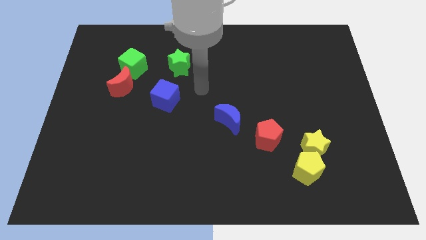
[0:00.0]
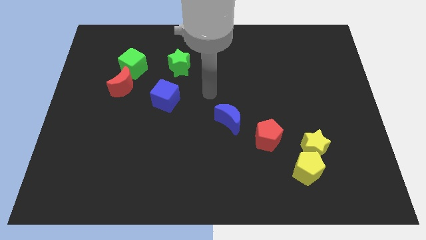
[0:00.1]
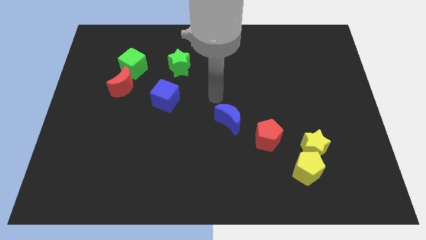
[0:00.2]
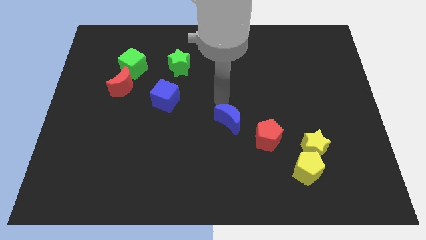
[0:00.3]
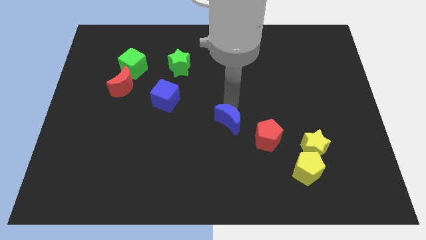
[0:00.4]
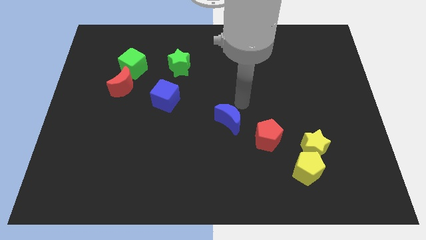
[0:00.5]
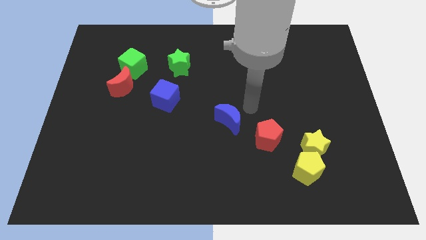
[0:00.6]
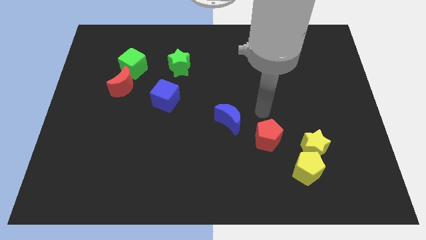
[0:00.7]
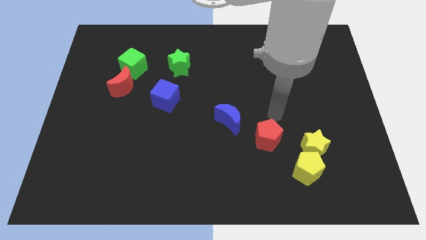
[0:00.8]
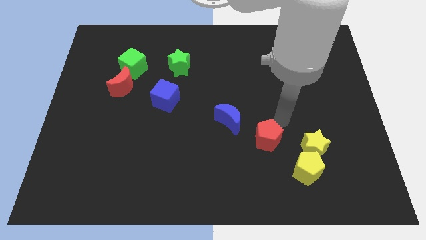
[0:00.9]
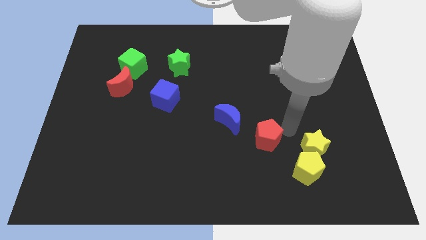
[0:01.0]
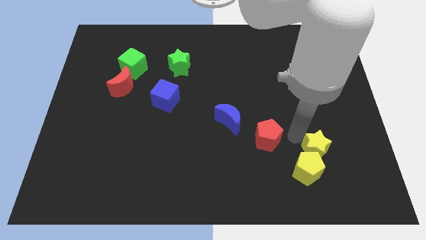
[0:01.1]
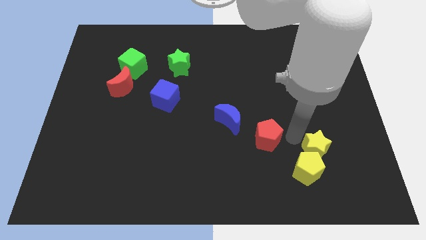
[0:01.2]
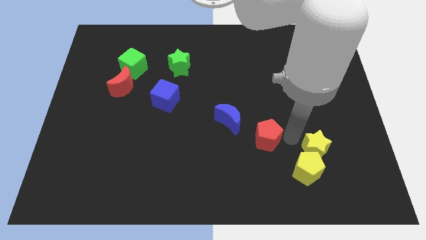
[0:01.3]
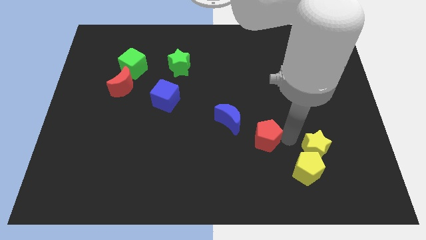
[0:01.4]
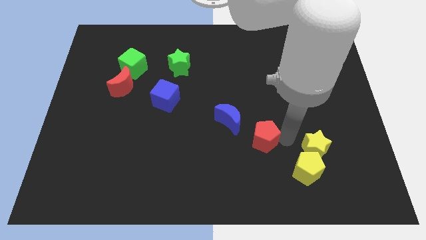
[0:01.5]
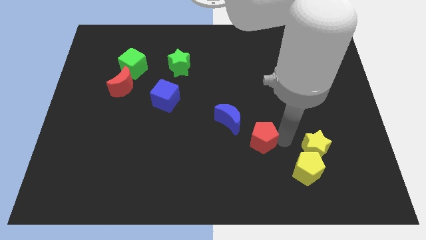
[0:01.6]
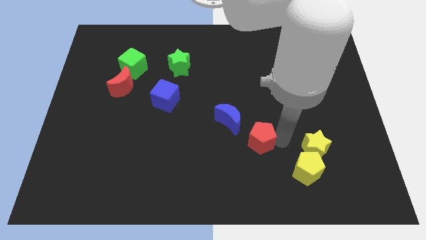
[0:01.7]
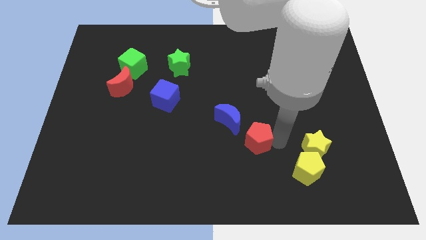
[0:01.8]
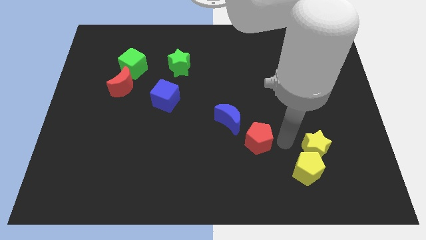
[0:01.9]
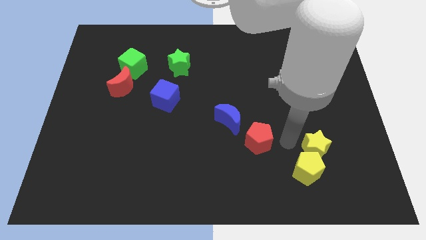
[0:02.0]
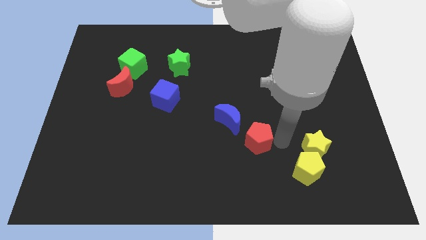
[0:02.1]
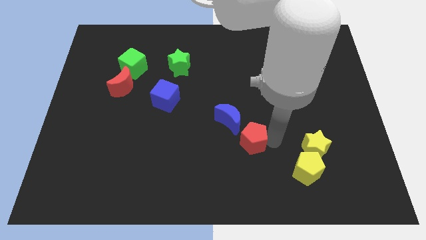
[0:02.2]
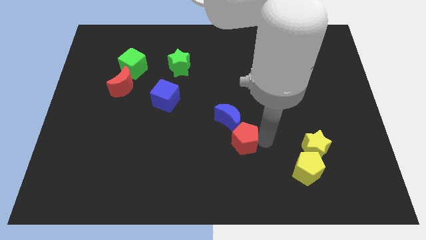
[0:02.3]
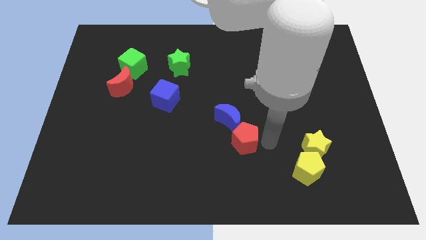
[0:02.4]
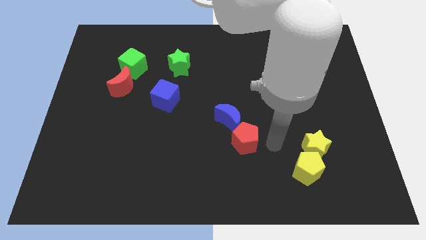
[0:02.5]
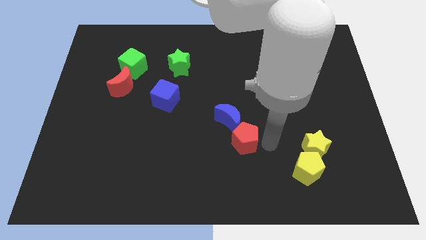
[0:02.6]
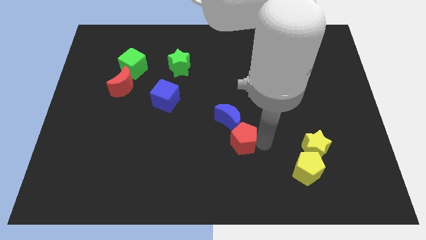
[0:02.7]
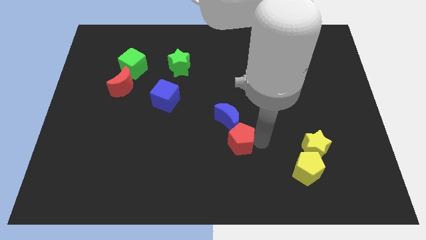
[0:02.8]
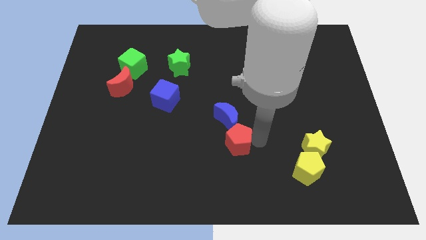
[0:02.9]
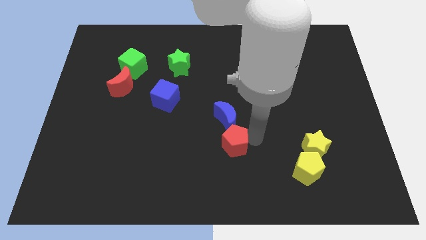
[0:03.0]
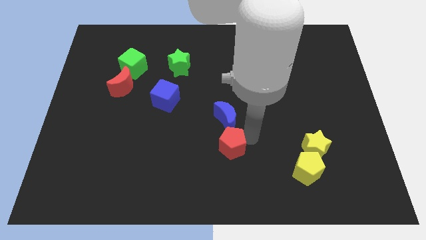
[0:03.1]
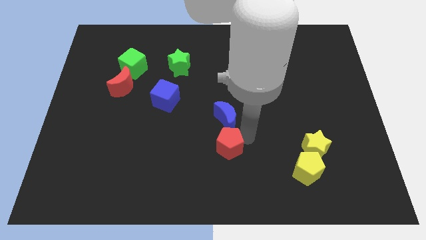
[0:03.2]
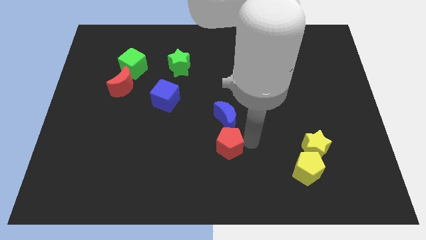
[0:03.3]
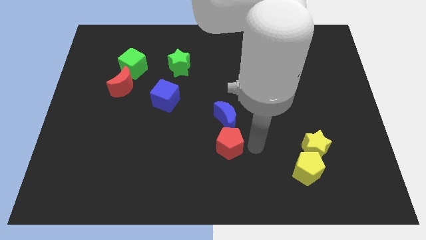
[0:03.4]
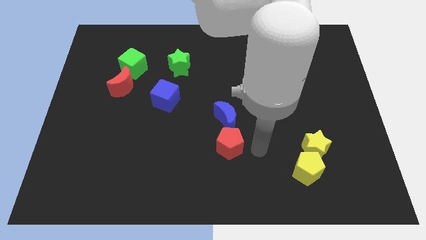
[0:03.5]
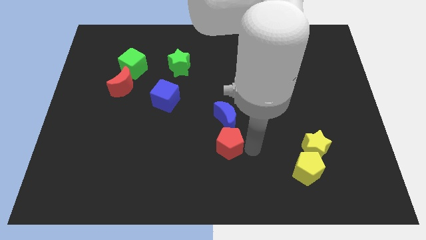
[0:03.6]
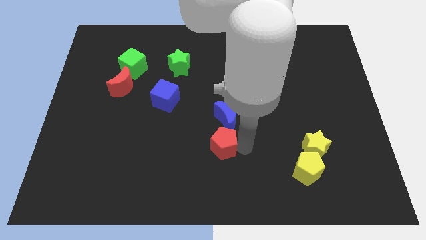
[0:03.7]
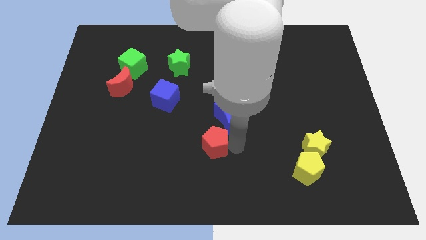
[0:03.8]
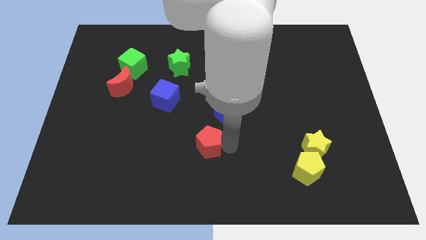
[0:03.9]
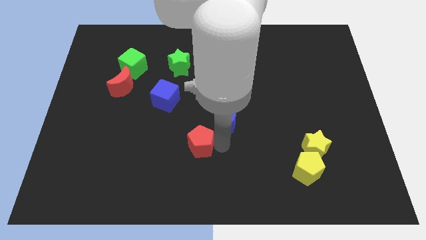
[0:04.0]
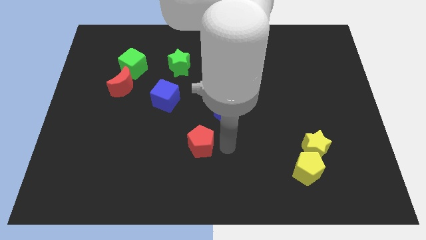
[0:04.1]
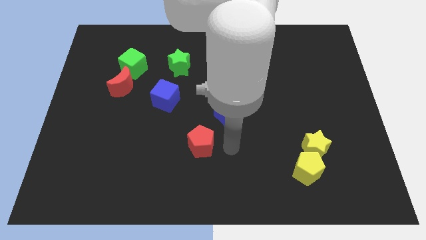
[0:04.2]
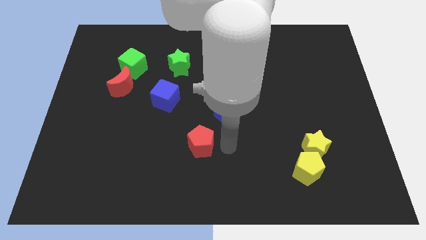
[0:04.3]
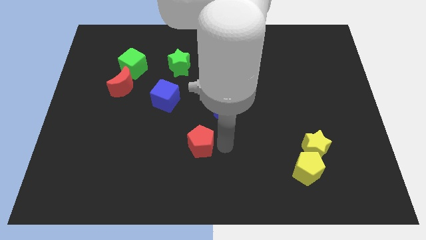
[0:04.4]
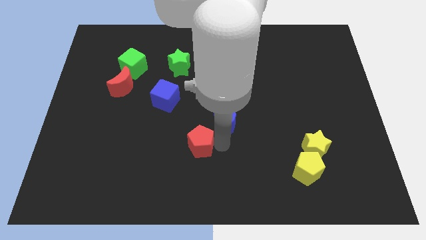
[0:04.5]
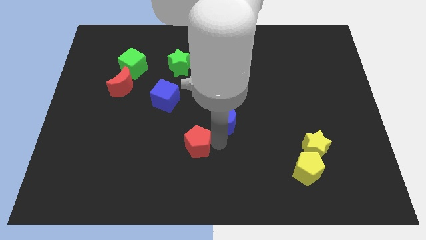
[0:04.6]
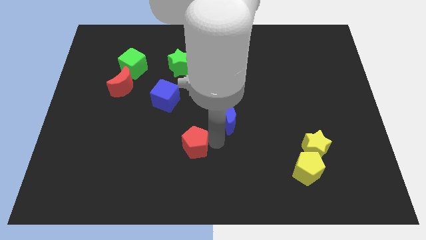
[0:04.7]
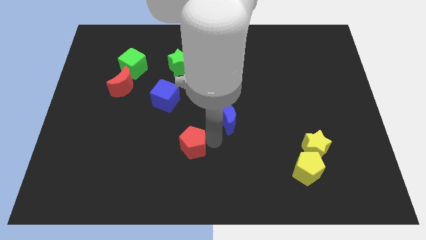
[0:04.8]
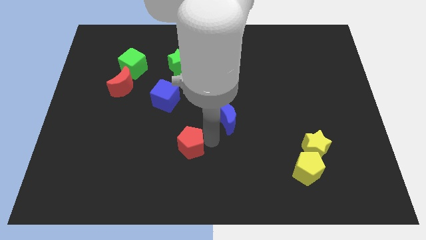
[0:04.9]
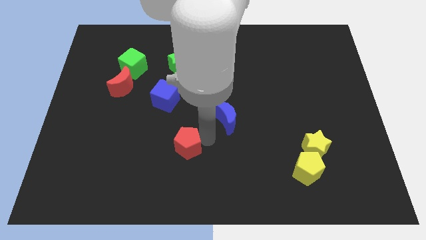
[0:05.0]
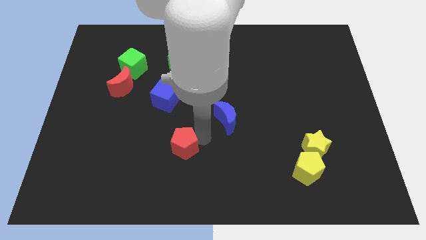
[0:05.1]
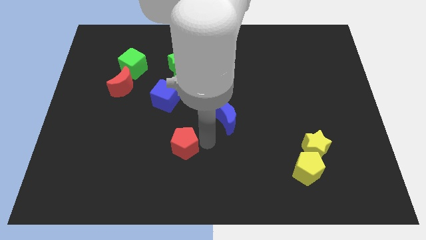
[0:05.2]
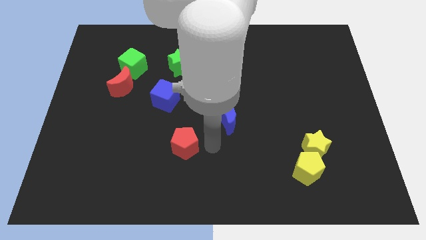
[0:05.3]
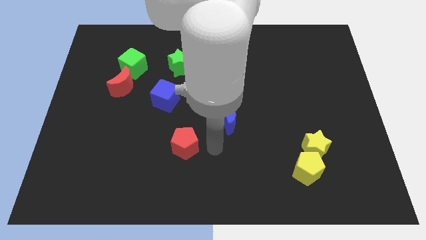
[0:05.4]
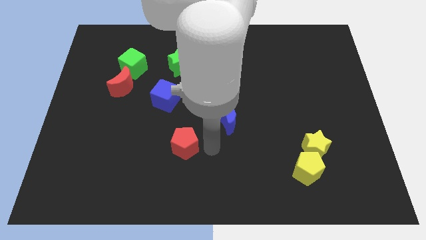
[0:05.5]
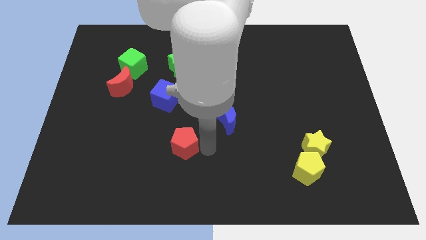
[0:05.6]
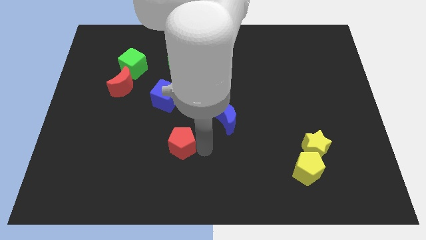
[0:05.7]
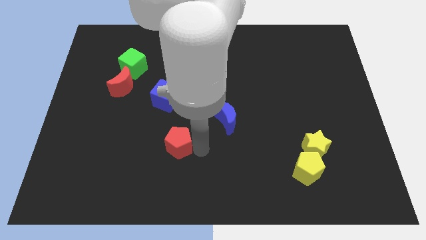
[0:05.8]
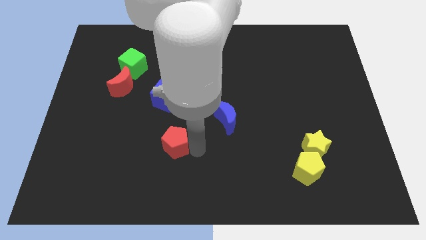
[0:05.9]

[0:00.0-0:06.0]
move the red pentagon to the left

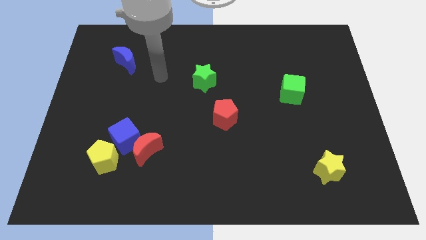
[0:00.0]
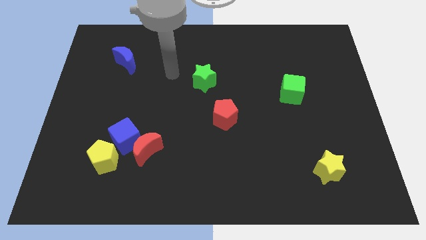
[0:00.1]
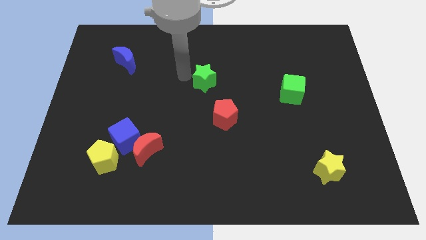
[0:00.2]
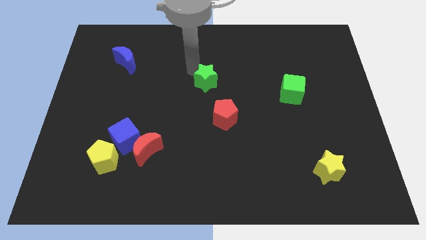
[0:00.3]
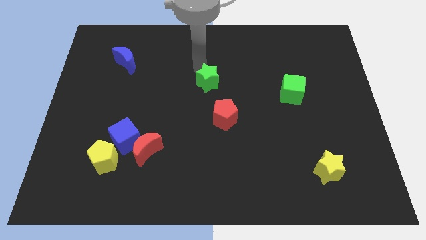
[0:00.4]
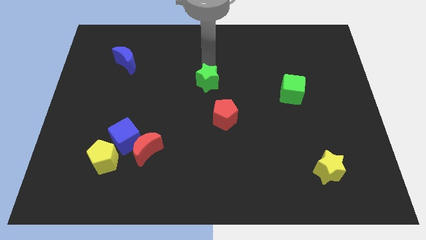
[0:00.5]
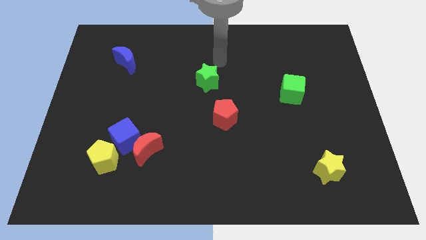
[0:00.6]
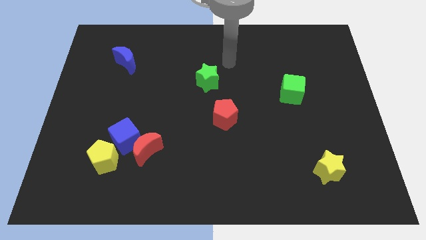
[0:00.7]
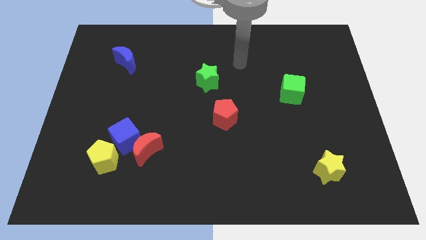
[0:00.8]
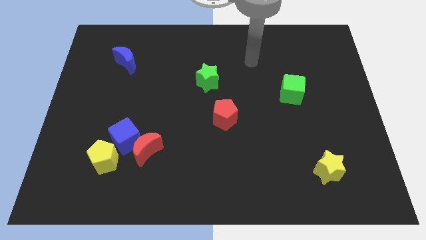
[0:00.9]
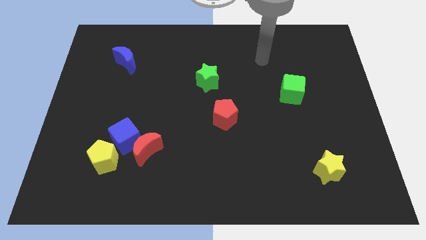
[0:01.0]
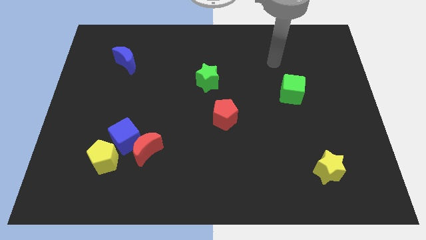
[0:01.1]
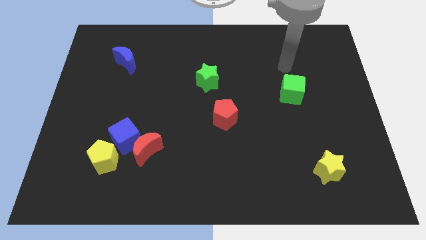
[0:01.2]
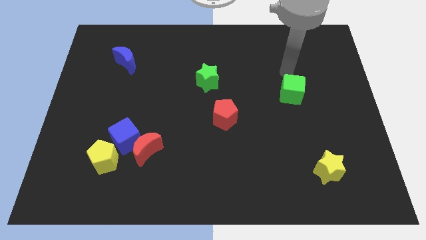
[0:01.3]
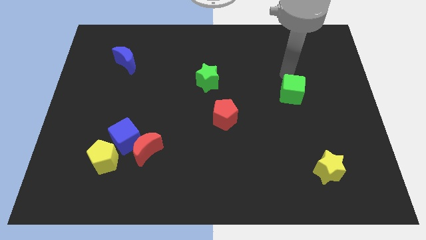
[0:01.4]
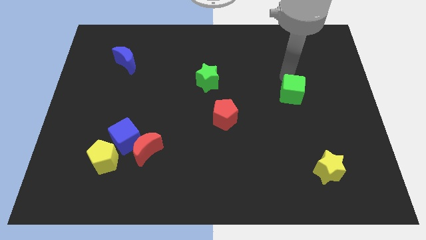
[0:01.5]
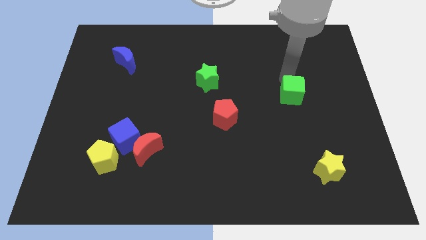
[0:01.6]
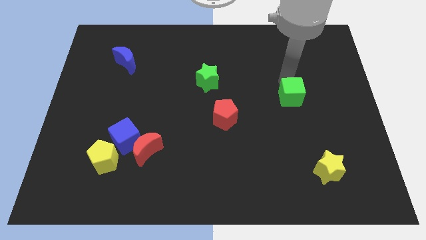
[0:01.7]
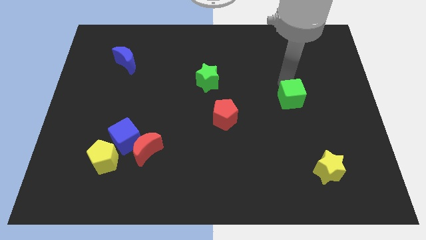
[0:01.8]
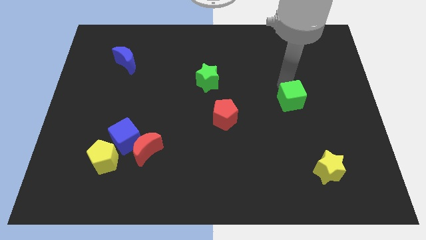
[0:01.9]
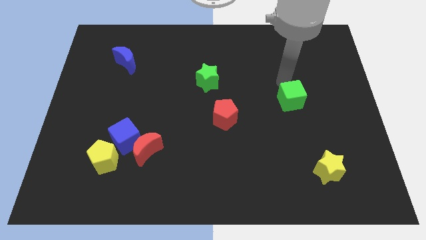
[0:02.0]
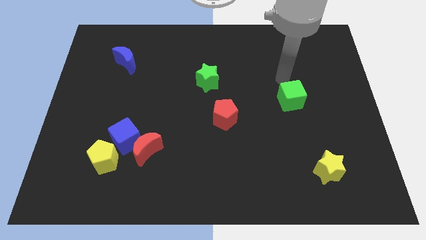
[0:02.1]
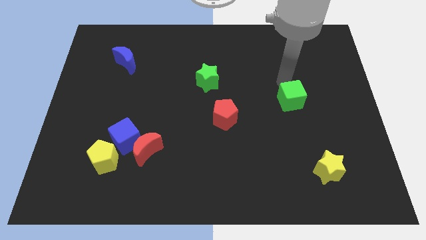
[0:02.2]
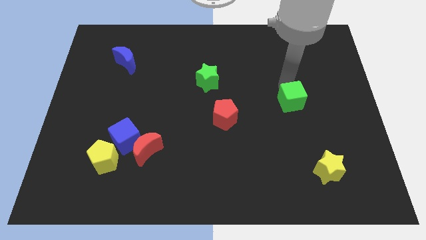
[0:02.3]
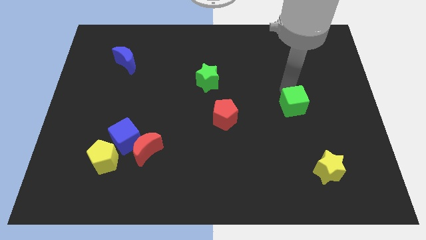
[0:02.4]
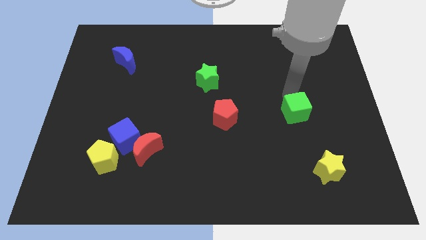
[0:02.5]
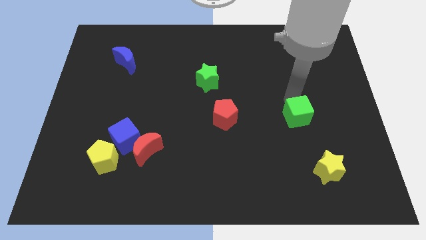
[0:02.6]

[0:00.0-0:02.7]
move the green cube down slightly
